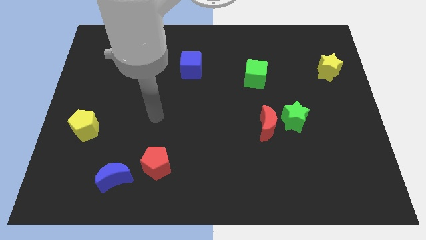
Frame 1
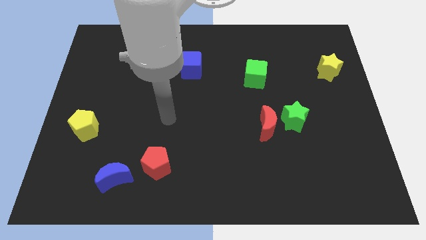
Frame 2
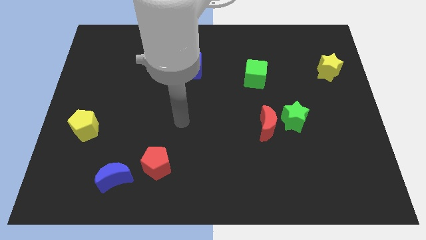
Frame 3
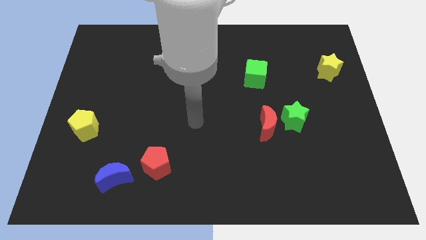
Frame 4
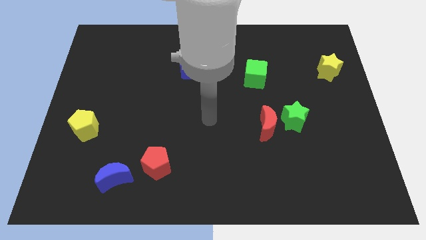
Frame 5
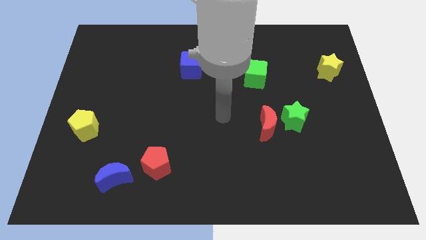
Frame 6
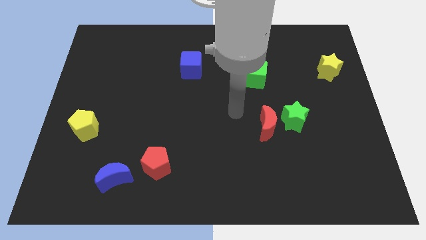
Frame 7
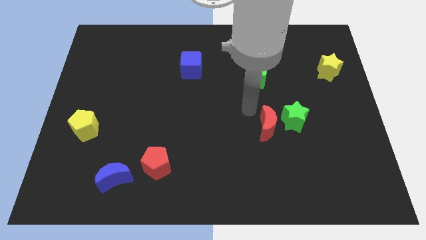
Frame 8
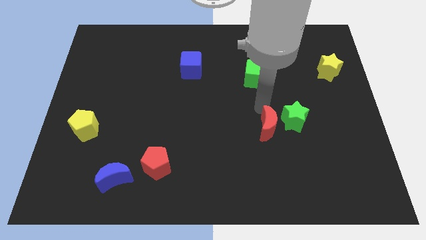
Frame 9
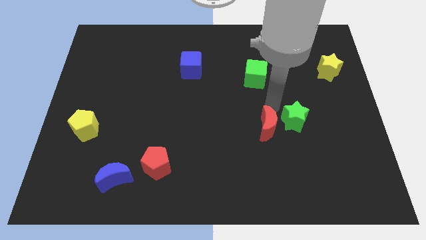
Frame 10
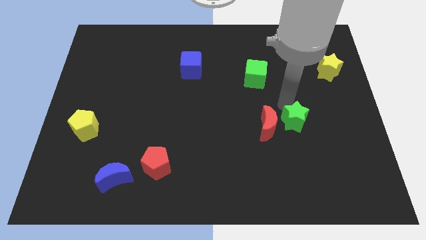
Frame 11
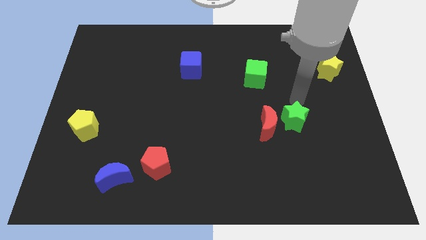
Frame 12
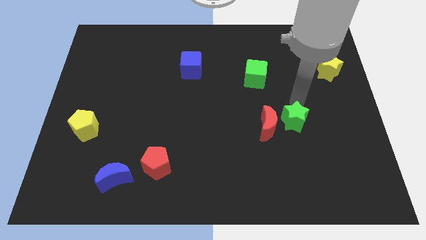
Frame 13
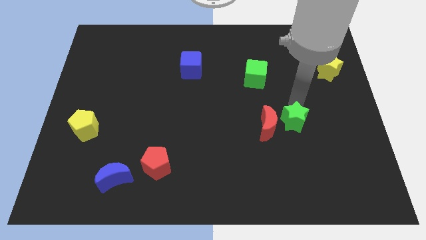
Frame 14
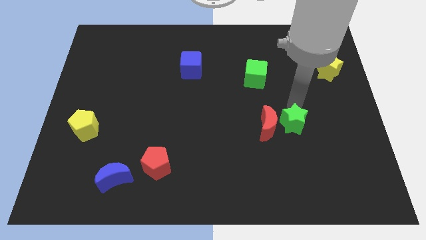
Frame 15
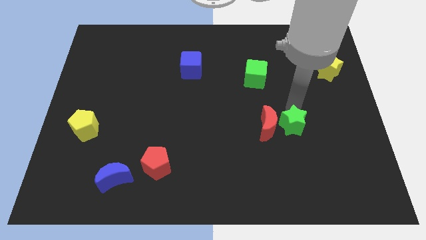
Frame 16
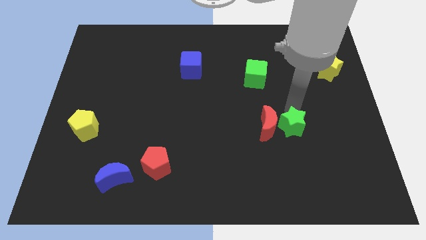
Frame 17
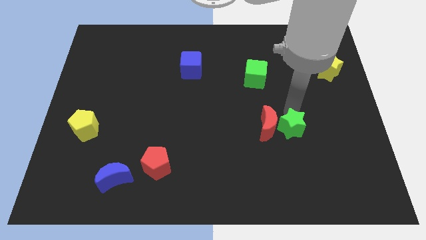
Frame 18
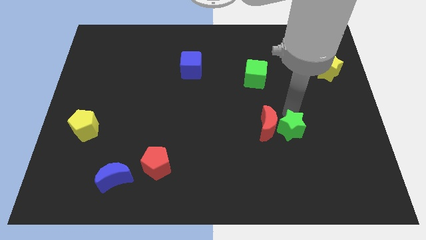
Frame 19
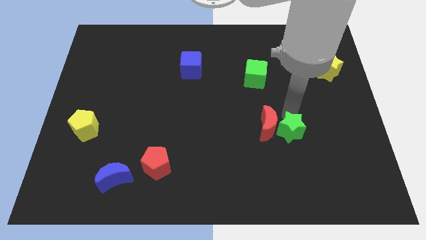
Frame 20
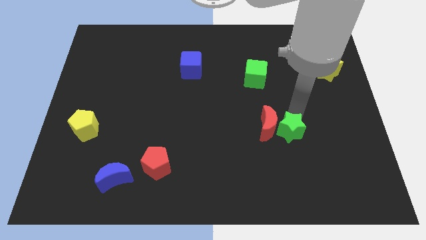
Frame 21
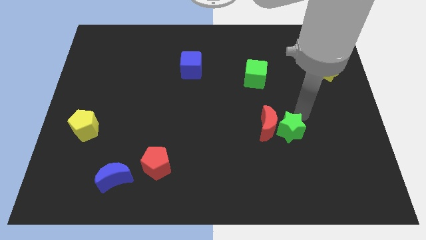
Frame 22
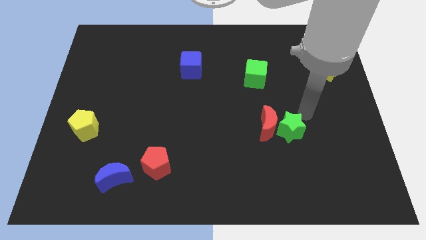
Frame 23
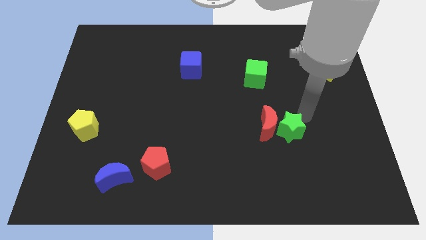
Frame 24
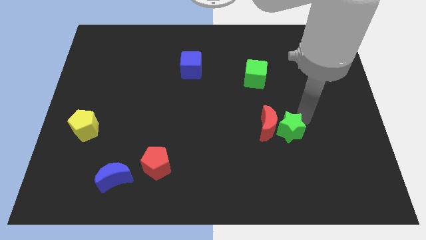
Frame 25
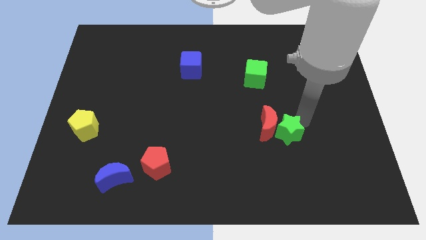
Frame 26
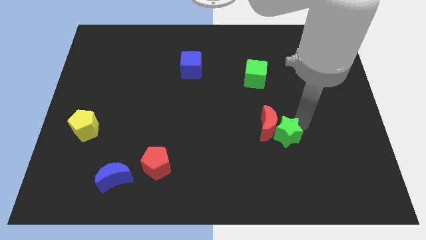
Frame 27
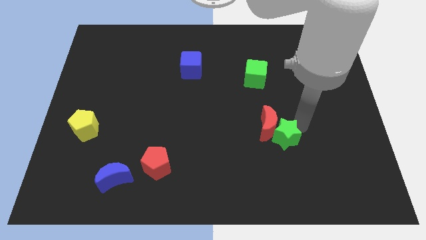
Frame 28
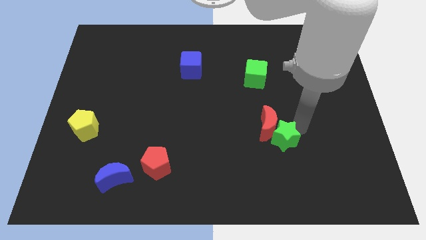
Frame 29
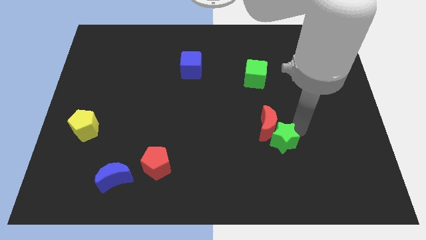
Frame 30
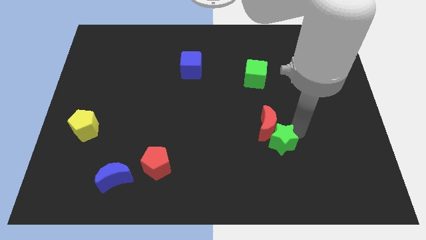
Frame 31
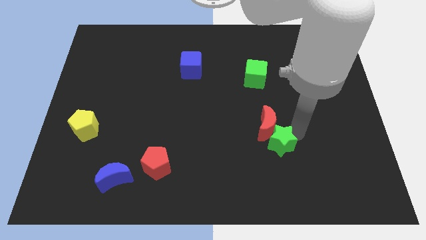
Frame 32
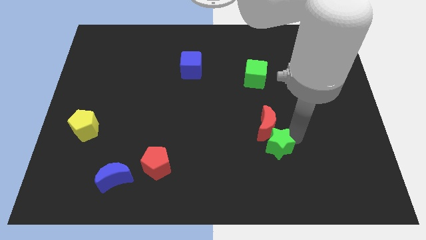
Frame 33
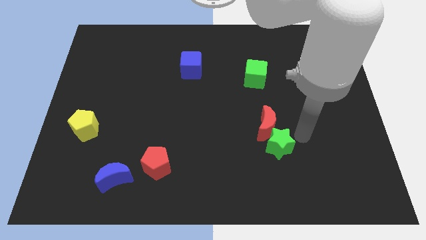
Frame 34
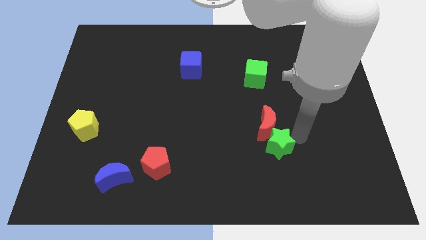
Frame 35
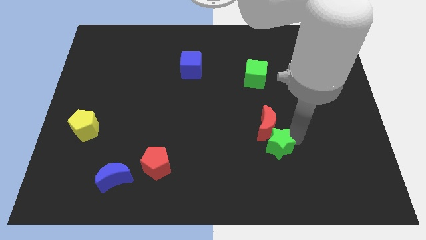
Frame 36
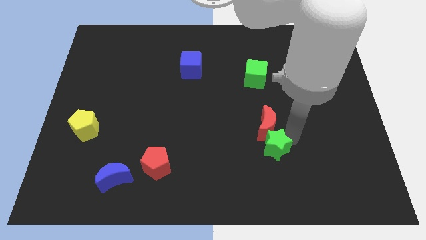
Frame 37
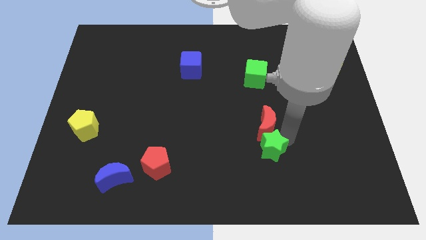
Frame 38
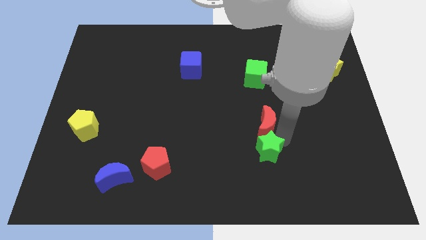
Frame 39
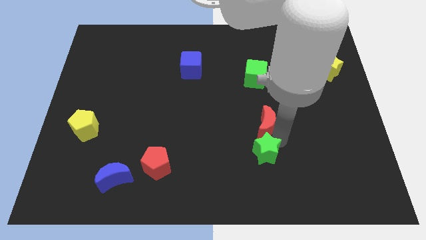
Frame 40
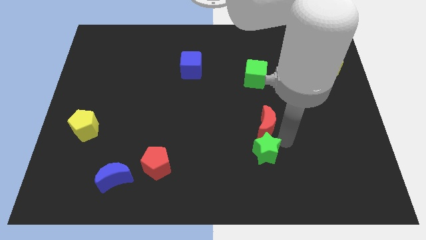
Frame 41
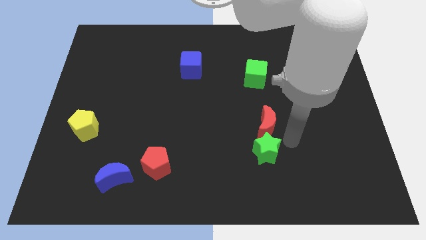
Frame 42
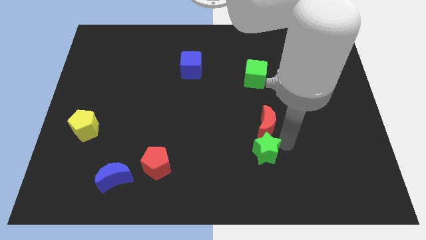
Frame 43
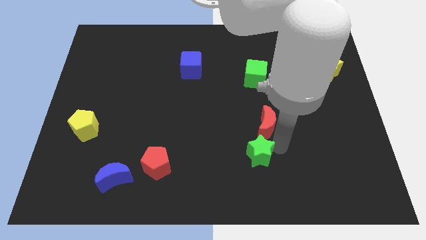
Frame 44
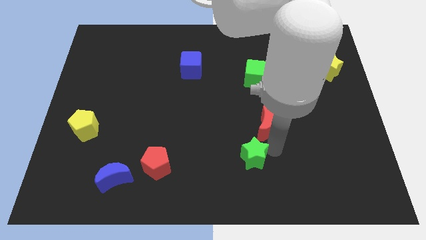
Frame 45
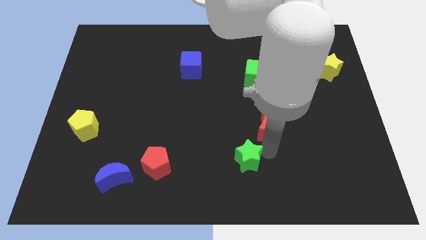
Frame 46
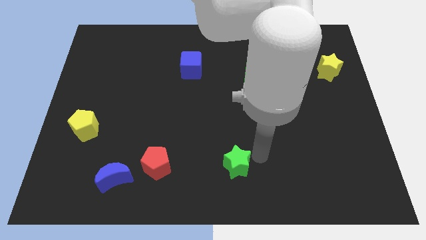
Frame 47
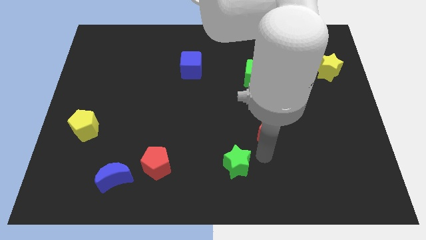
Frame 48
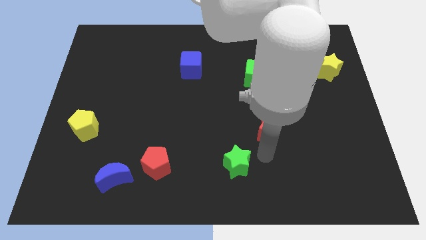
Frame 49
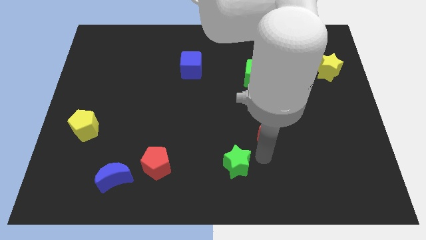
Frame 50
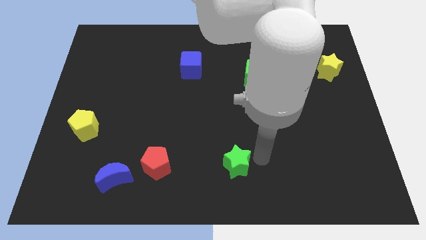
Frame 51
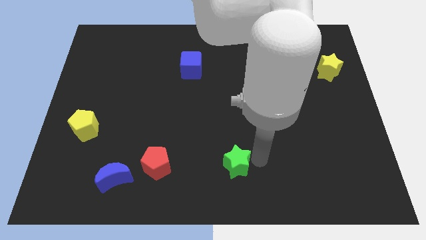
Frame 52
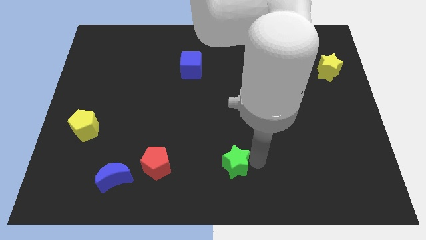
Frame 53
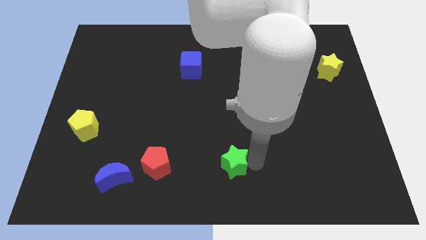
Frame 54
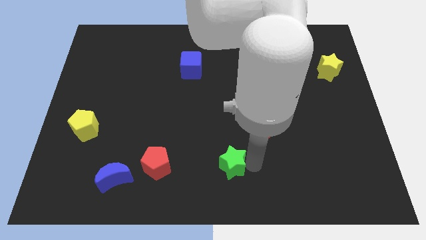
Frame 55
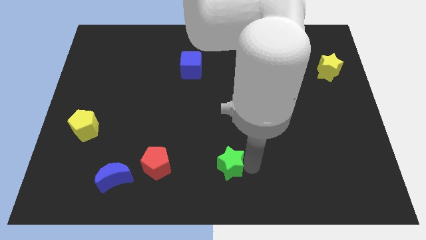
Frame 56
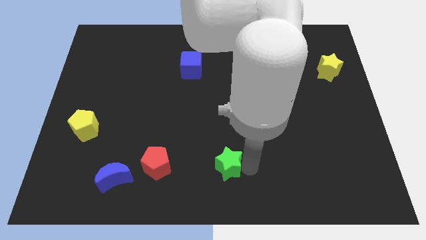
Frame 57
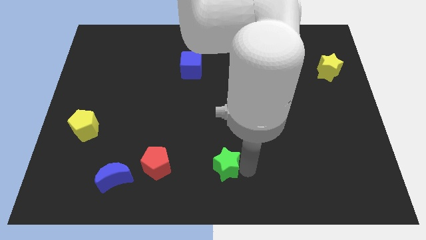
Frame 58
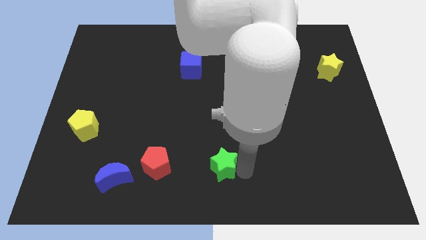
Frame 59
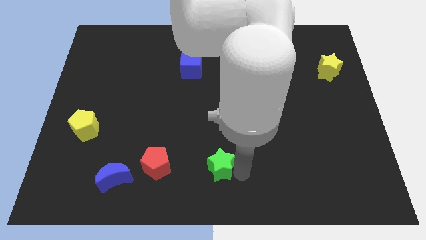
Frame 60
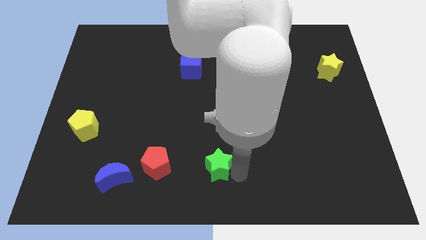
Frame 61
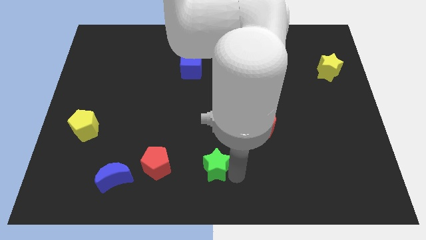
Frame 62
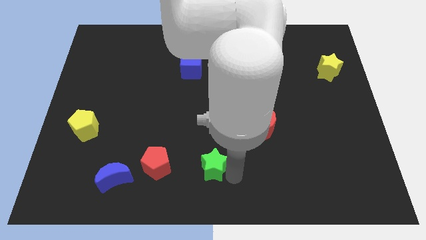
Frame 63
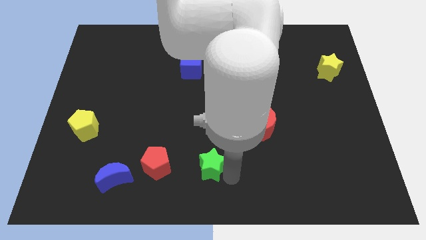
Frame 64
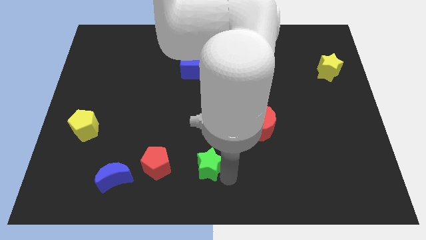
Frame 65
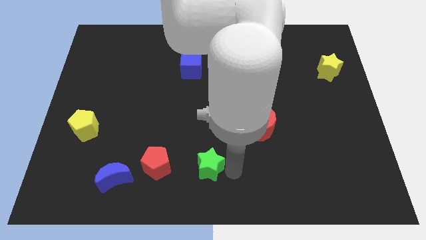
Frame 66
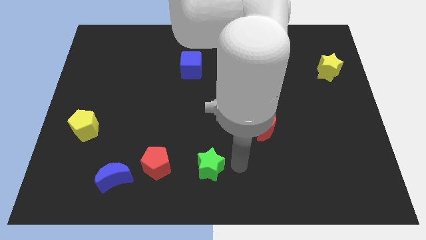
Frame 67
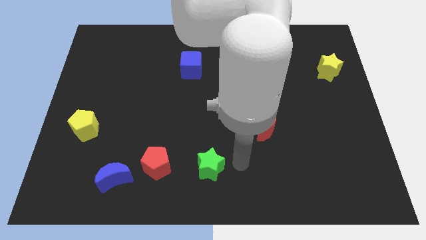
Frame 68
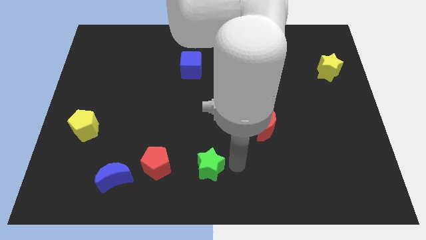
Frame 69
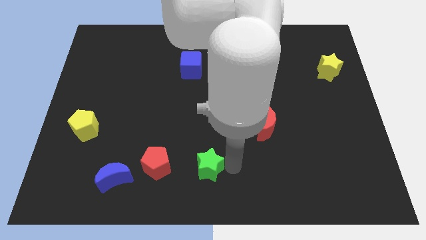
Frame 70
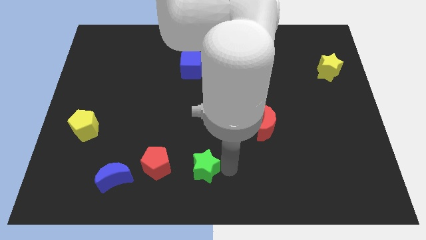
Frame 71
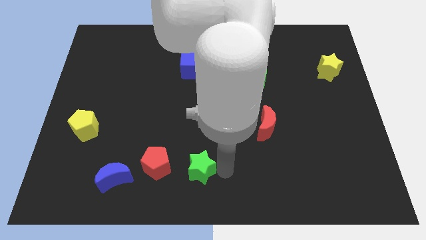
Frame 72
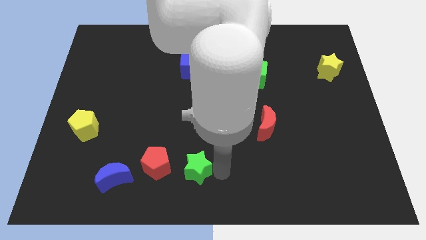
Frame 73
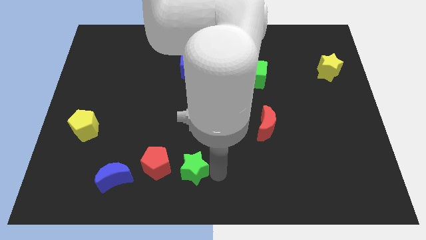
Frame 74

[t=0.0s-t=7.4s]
push the green star to the right side of the blue moon
